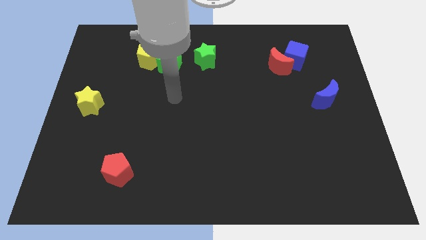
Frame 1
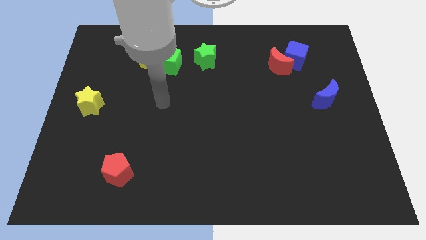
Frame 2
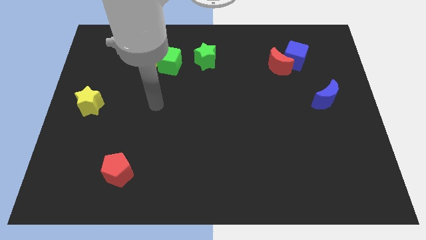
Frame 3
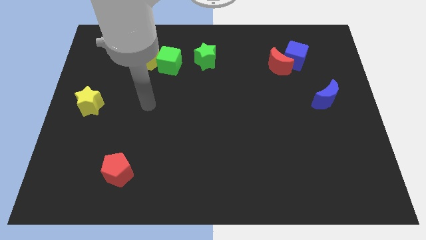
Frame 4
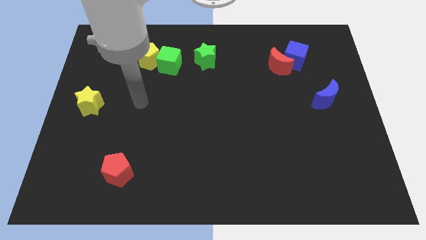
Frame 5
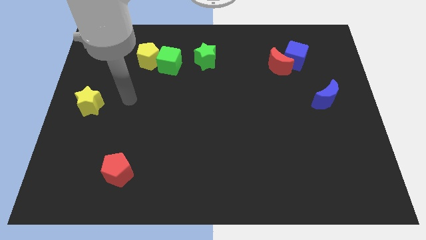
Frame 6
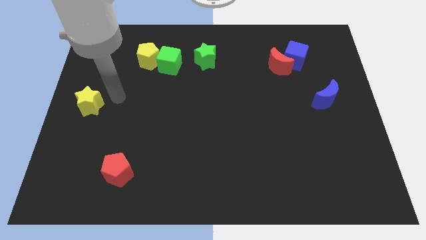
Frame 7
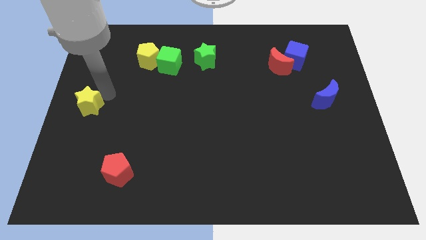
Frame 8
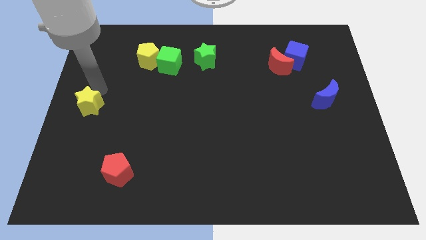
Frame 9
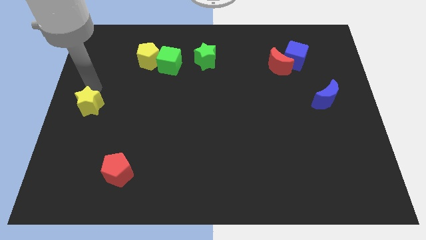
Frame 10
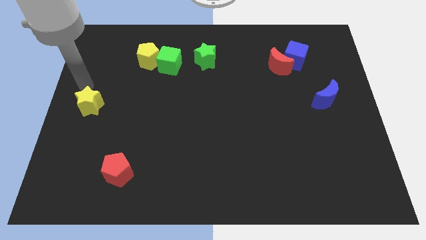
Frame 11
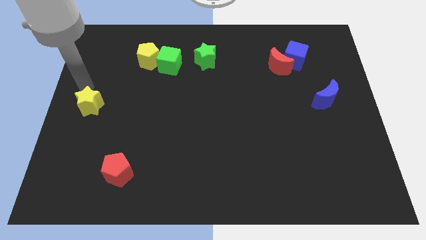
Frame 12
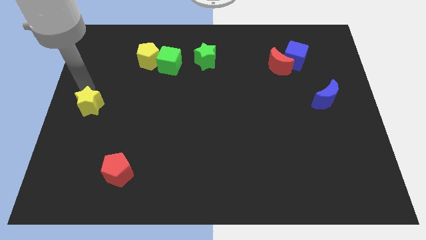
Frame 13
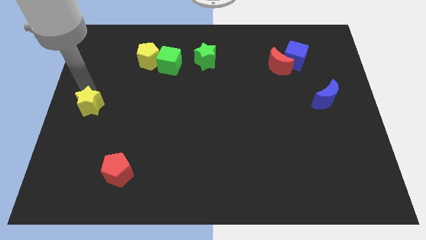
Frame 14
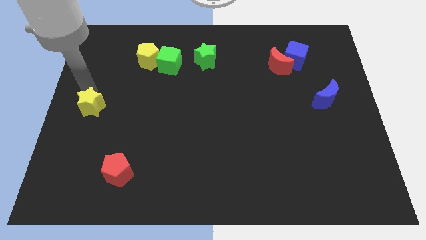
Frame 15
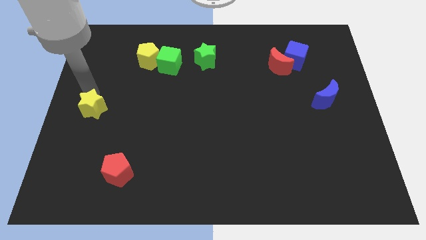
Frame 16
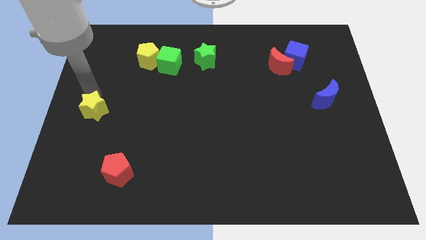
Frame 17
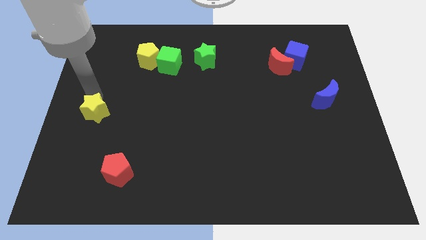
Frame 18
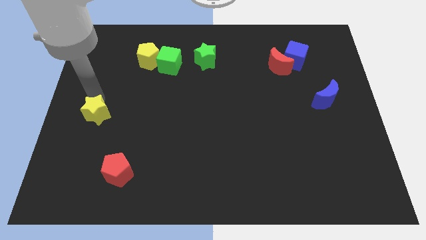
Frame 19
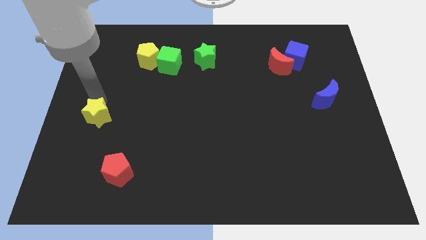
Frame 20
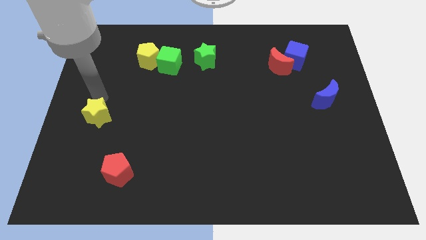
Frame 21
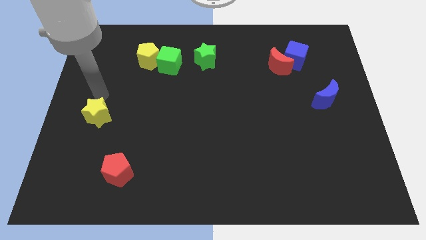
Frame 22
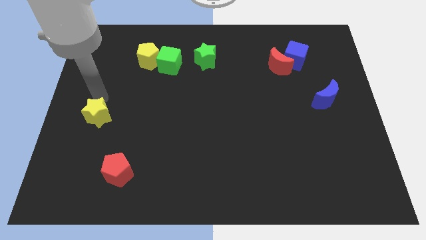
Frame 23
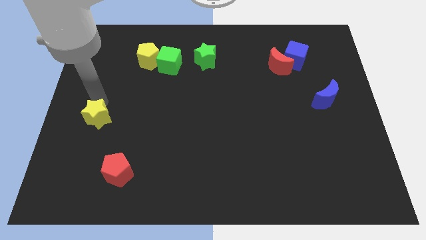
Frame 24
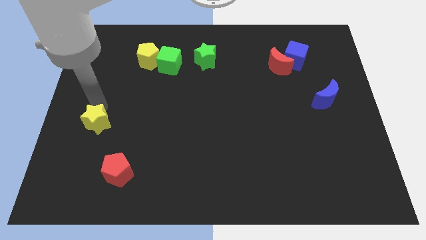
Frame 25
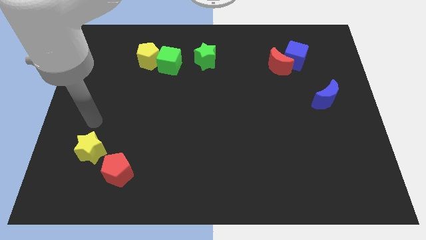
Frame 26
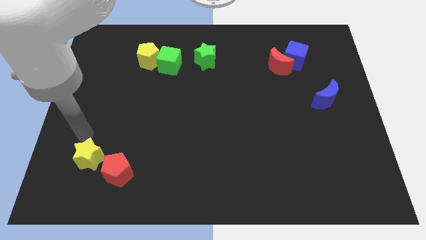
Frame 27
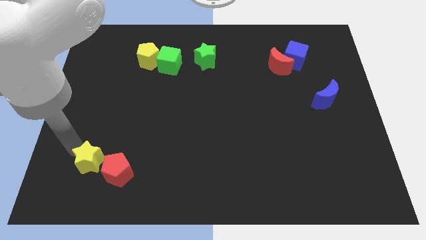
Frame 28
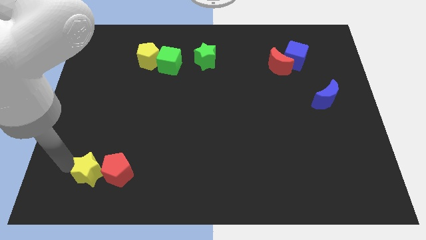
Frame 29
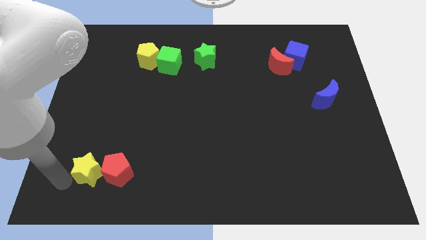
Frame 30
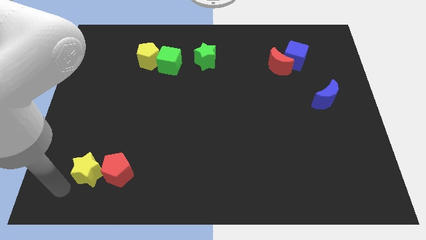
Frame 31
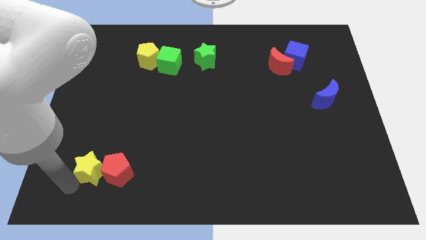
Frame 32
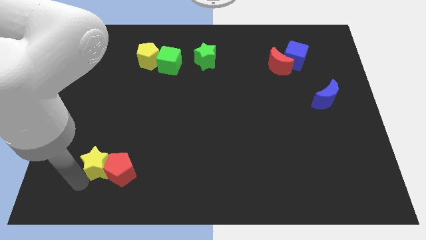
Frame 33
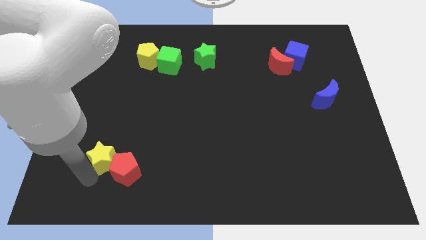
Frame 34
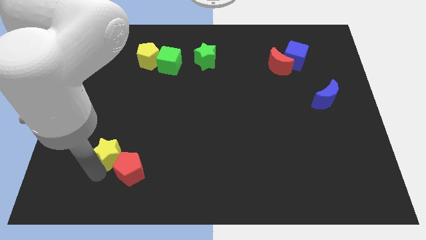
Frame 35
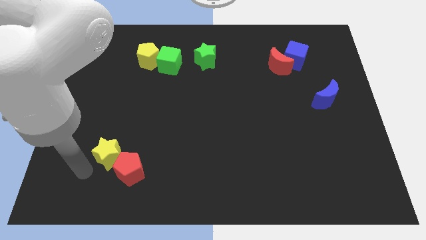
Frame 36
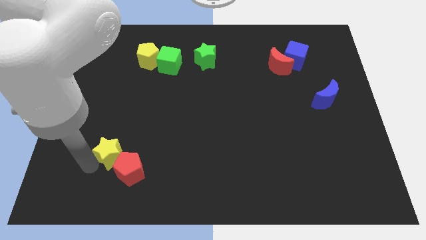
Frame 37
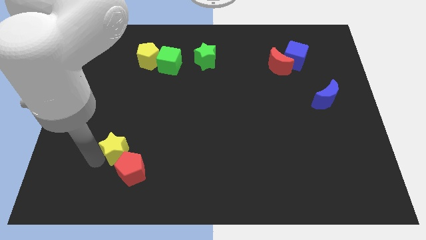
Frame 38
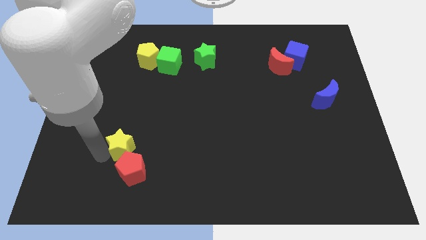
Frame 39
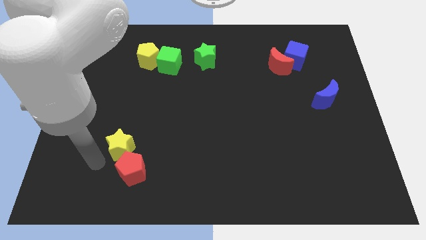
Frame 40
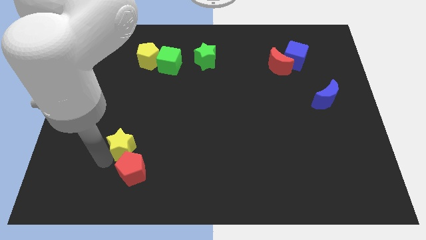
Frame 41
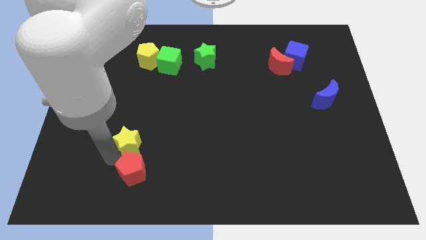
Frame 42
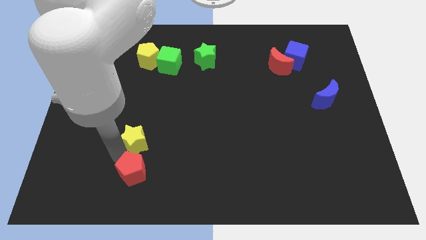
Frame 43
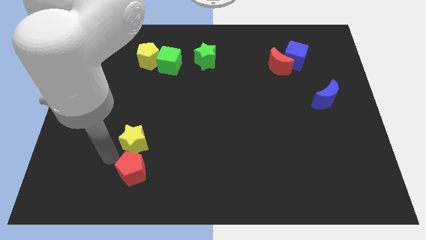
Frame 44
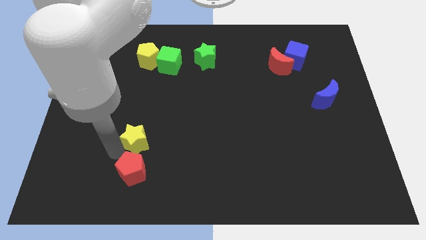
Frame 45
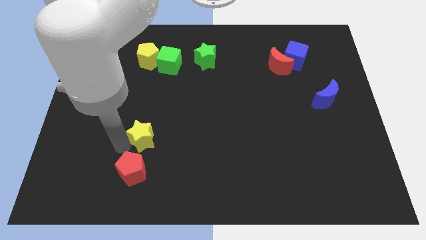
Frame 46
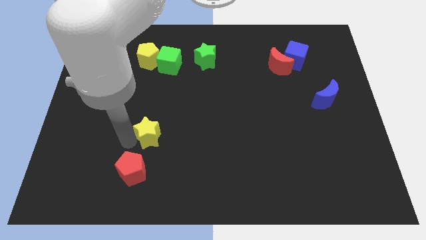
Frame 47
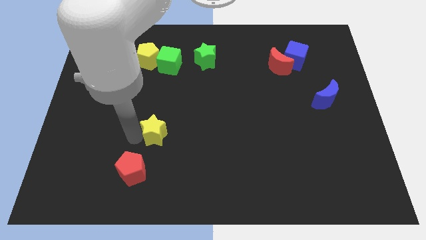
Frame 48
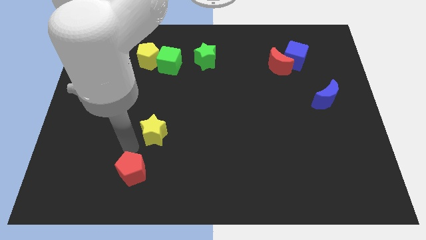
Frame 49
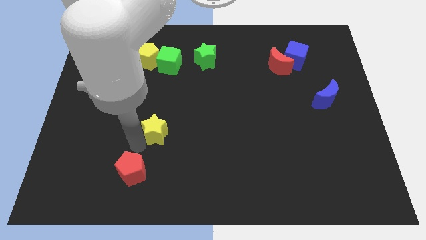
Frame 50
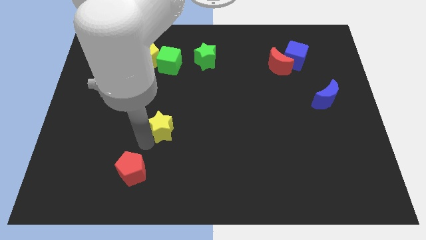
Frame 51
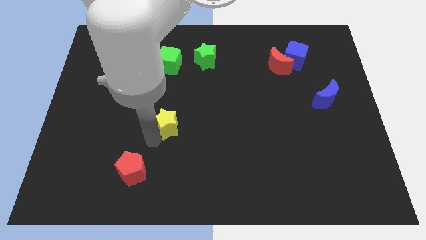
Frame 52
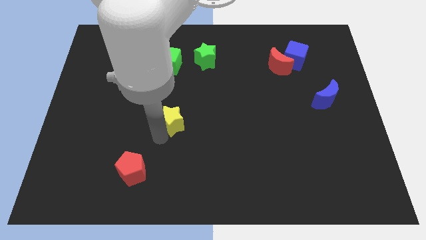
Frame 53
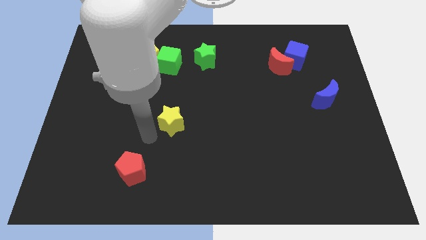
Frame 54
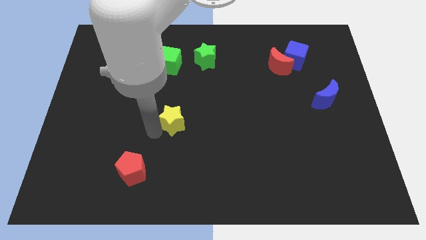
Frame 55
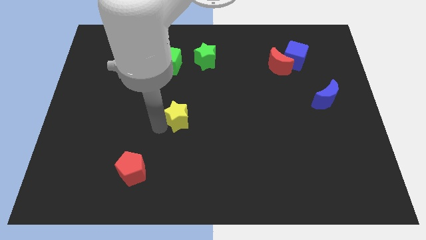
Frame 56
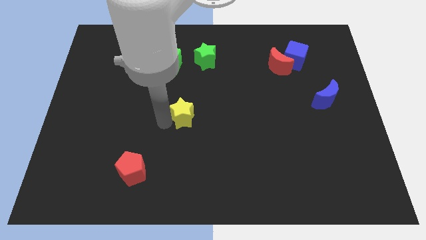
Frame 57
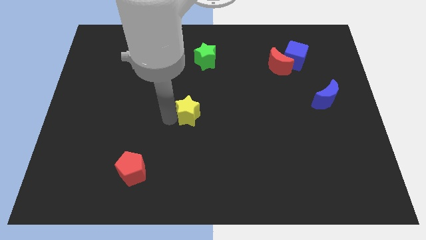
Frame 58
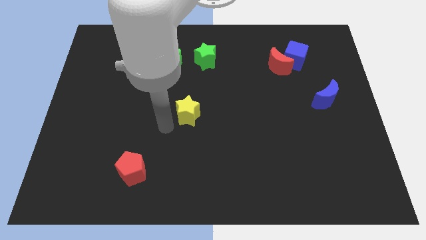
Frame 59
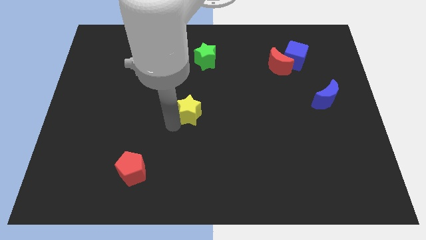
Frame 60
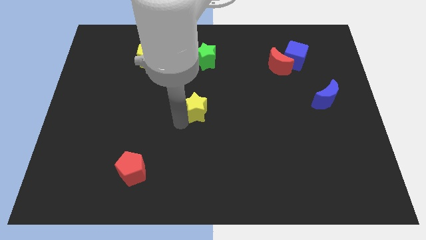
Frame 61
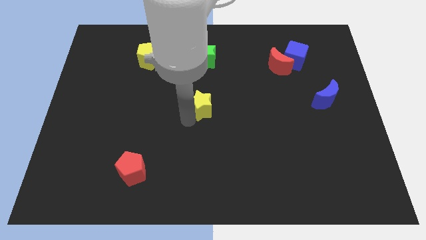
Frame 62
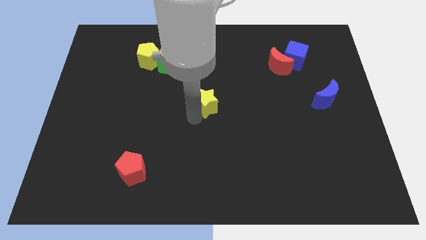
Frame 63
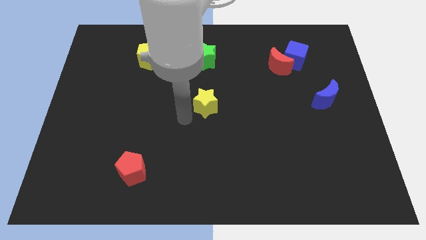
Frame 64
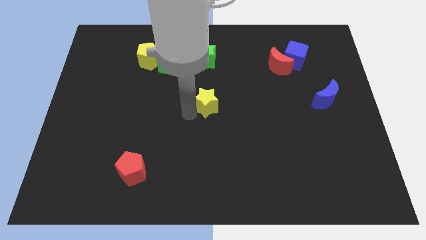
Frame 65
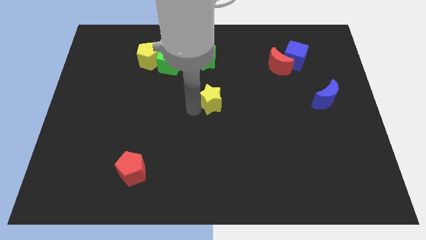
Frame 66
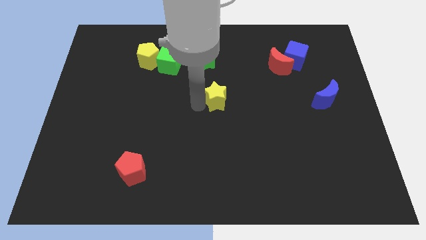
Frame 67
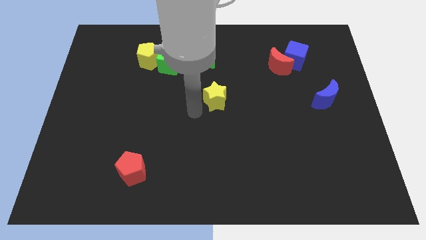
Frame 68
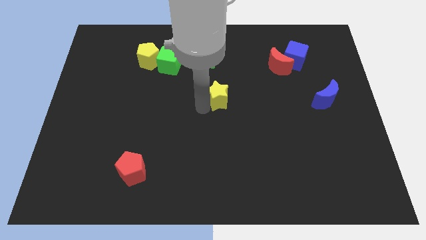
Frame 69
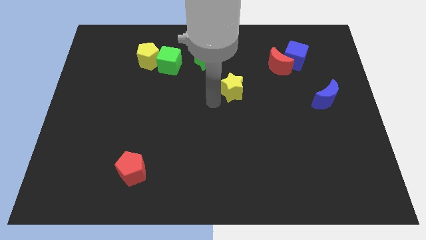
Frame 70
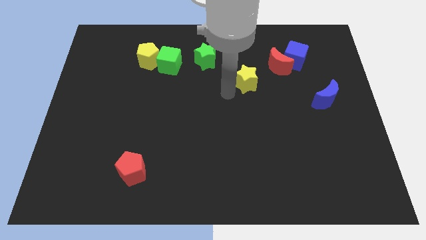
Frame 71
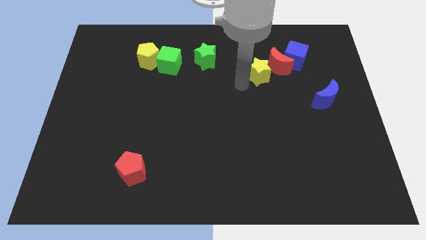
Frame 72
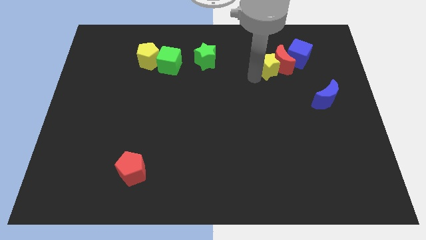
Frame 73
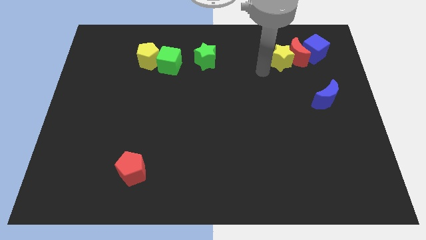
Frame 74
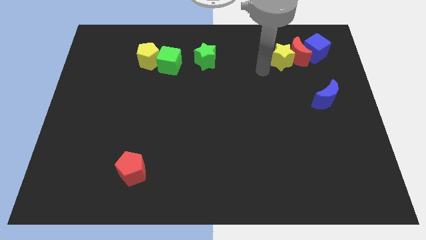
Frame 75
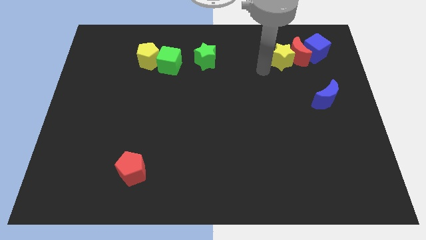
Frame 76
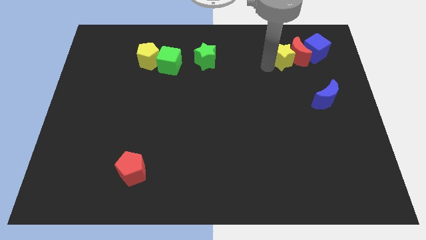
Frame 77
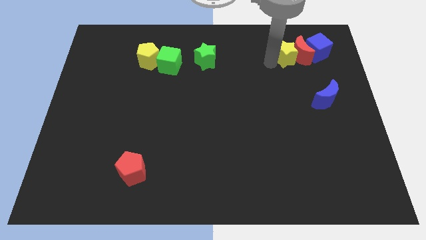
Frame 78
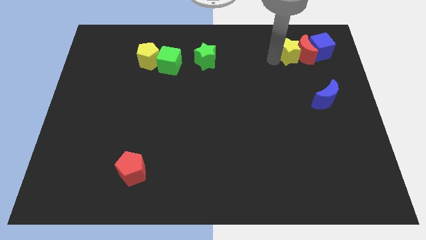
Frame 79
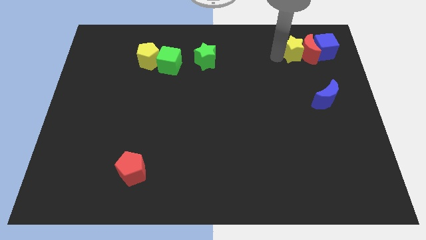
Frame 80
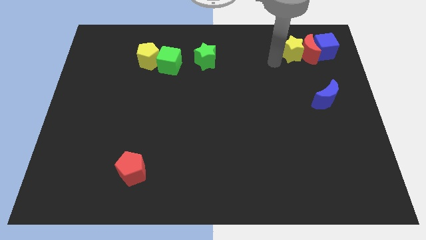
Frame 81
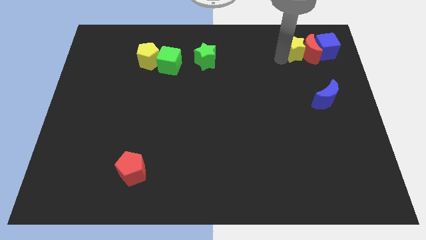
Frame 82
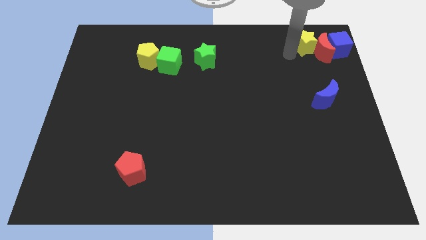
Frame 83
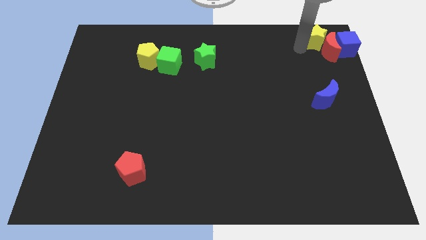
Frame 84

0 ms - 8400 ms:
put the yellow star to the top right corner
